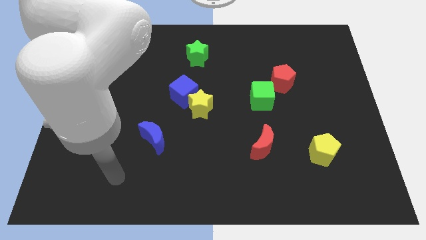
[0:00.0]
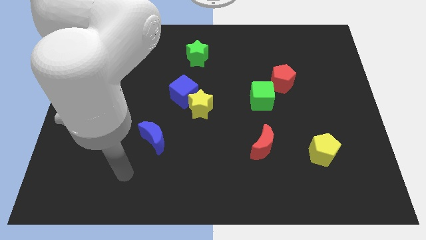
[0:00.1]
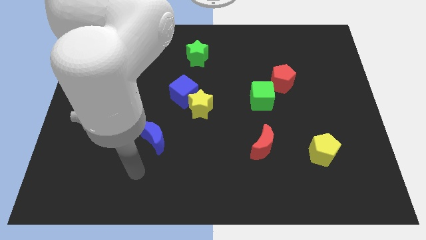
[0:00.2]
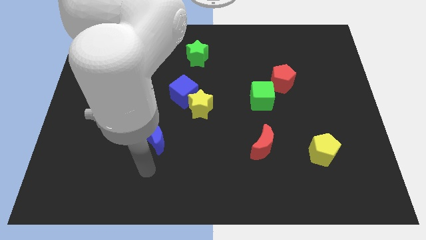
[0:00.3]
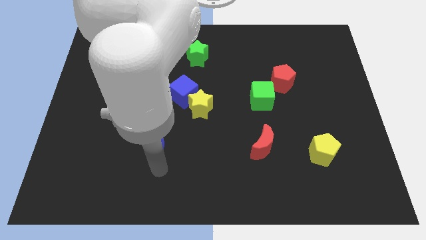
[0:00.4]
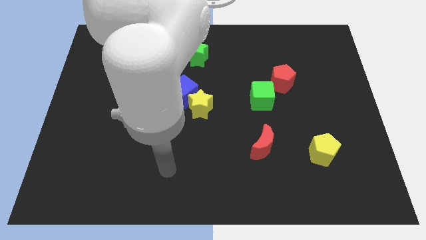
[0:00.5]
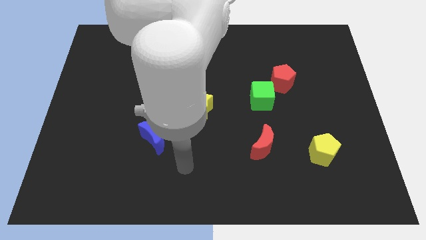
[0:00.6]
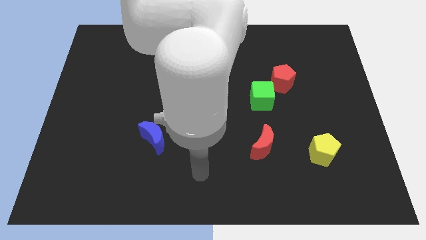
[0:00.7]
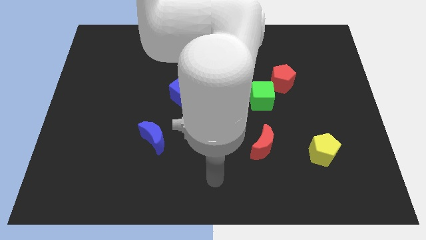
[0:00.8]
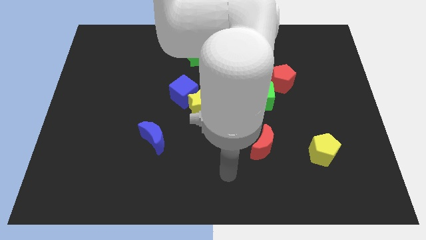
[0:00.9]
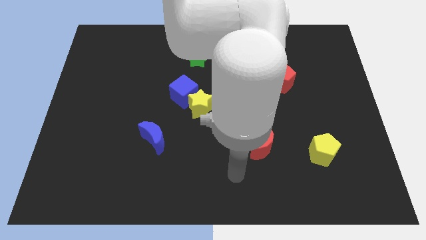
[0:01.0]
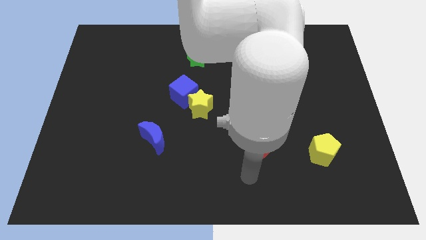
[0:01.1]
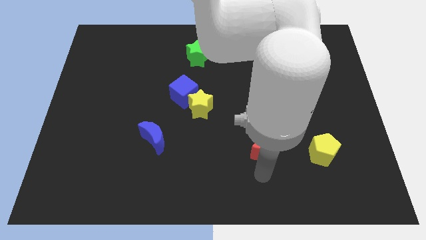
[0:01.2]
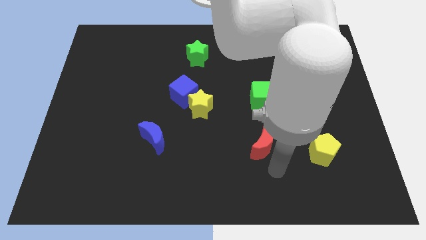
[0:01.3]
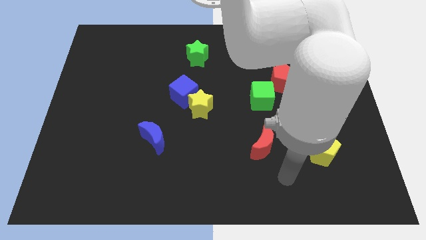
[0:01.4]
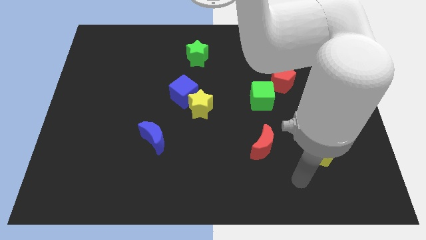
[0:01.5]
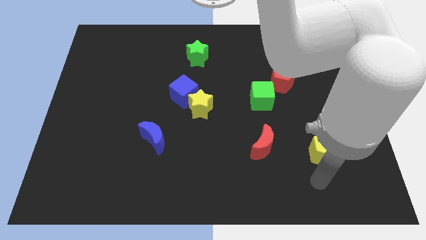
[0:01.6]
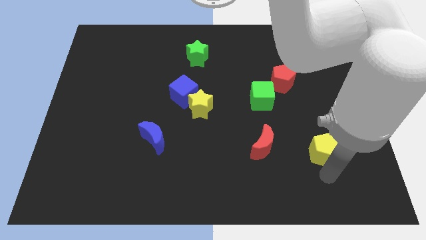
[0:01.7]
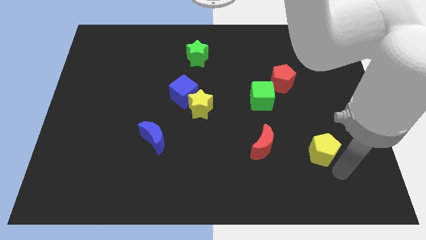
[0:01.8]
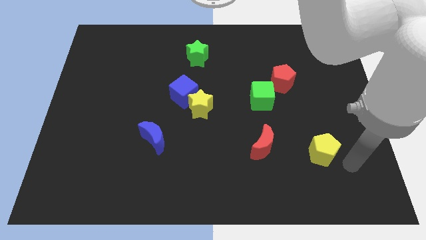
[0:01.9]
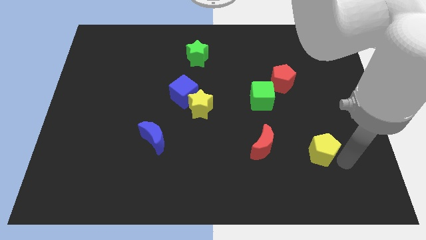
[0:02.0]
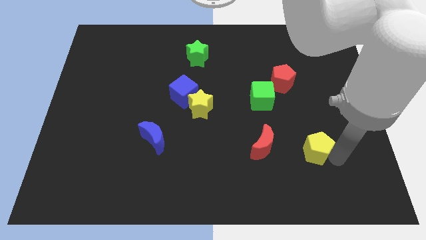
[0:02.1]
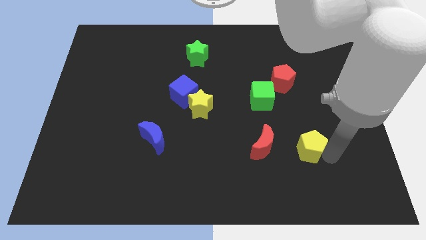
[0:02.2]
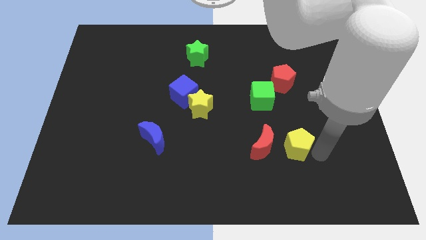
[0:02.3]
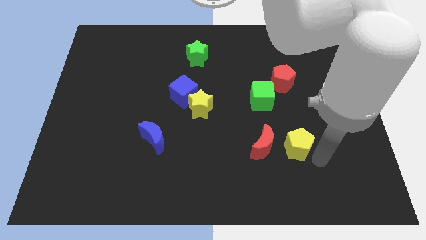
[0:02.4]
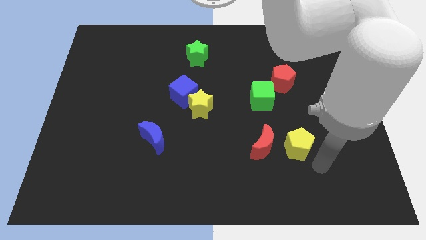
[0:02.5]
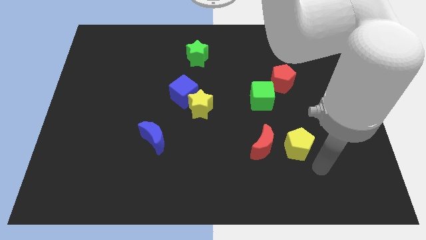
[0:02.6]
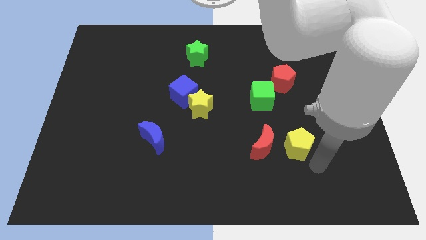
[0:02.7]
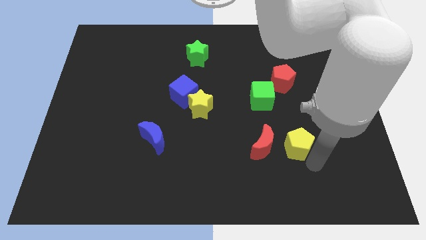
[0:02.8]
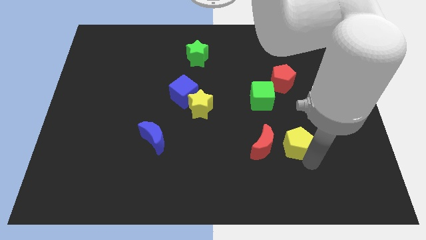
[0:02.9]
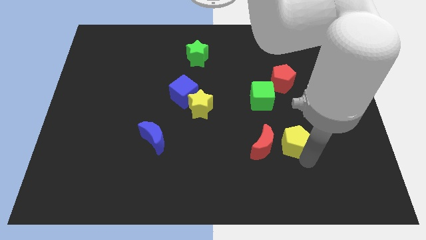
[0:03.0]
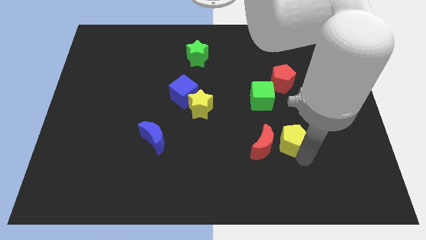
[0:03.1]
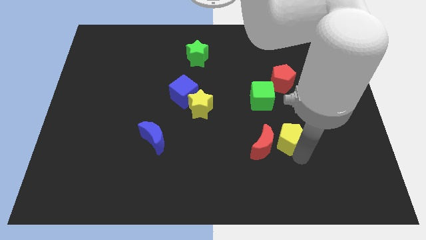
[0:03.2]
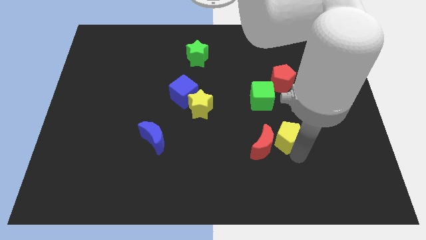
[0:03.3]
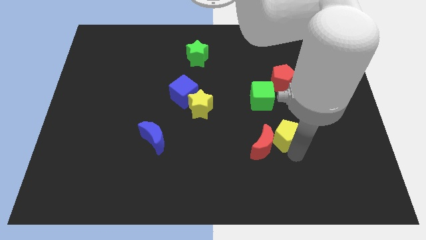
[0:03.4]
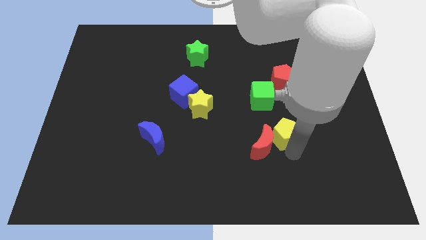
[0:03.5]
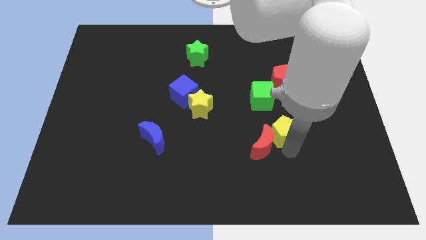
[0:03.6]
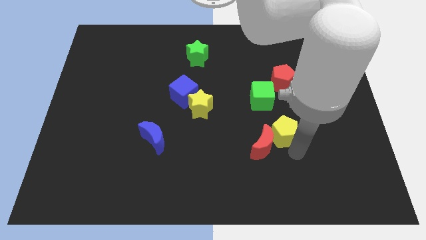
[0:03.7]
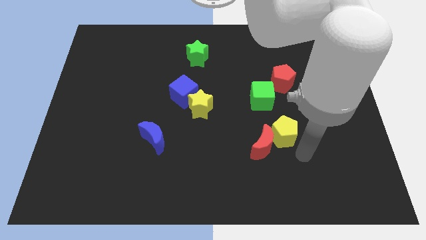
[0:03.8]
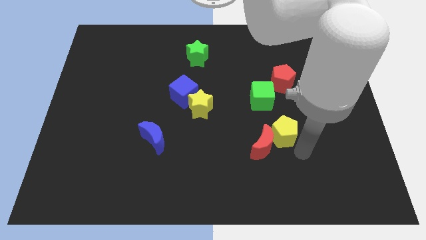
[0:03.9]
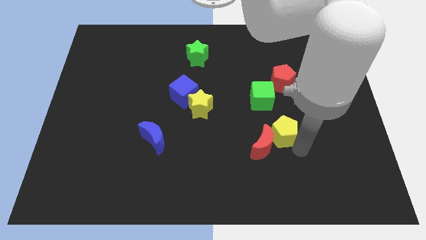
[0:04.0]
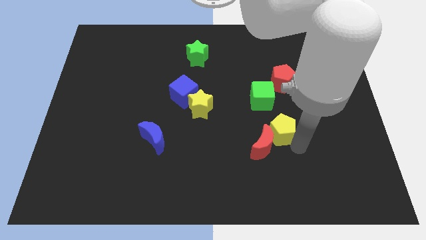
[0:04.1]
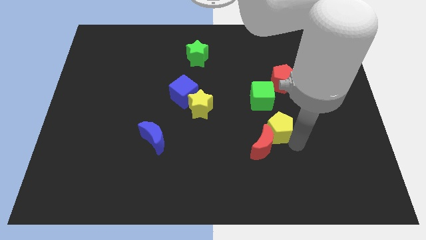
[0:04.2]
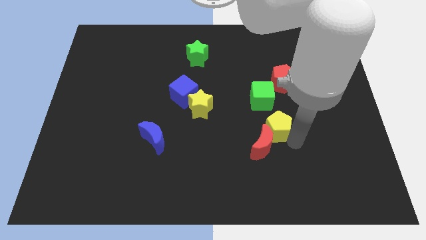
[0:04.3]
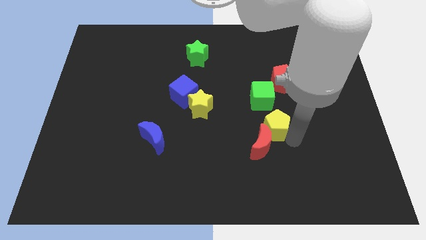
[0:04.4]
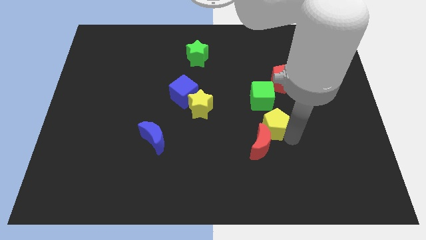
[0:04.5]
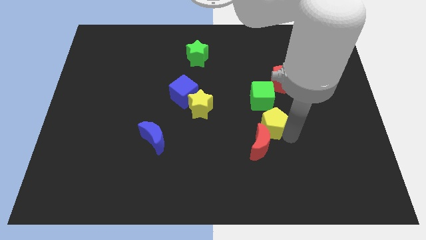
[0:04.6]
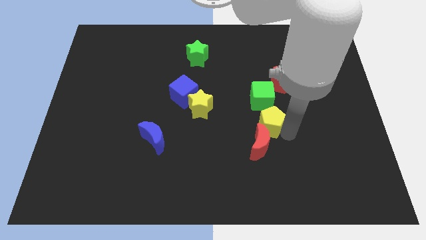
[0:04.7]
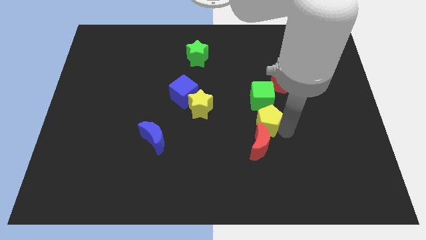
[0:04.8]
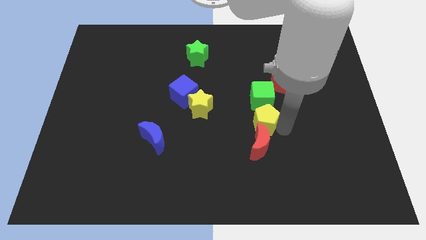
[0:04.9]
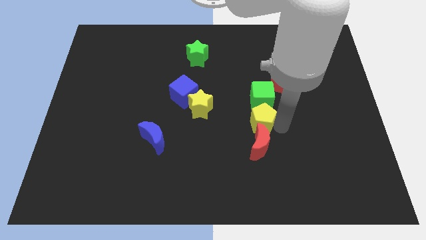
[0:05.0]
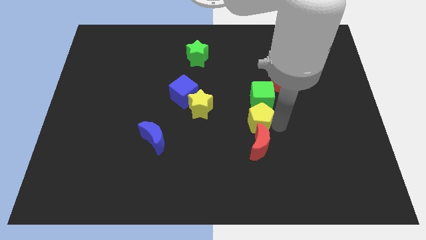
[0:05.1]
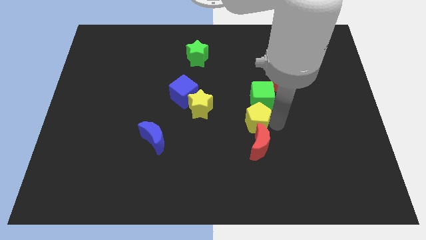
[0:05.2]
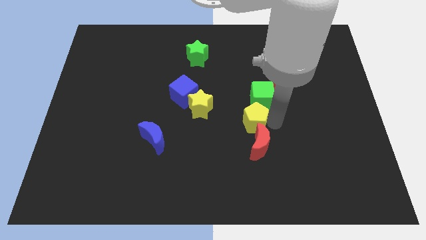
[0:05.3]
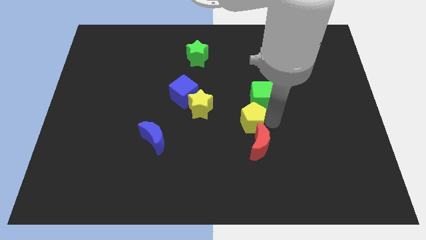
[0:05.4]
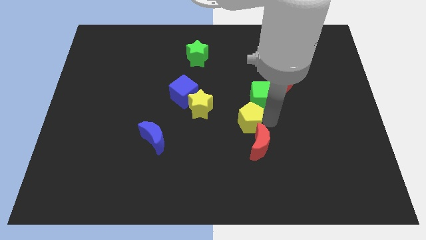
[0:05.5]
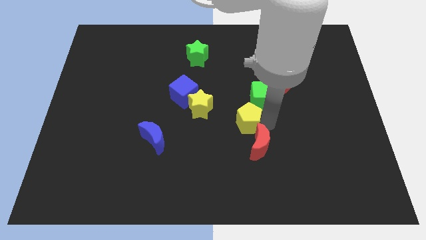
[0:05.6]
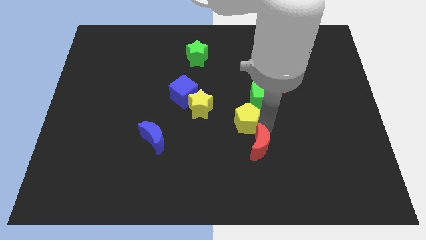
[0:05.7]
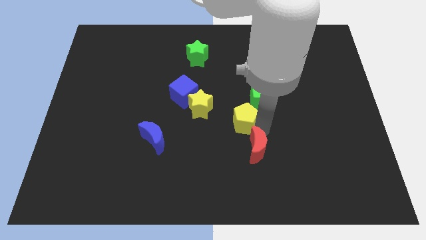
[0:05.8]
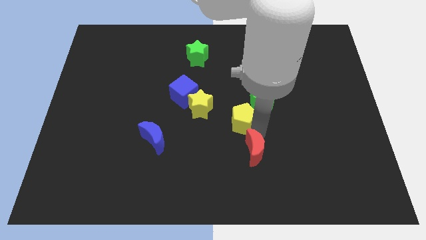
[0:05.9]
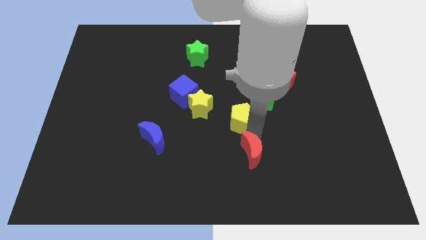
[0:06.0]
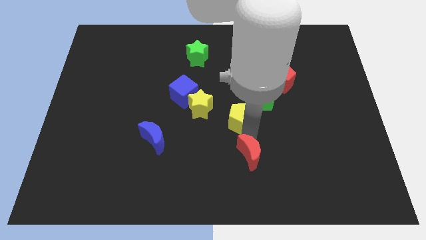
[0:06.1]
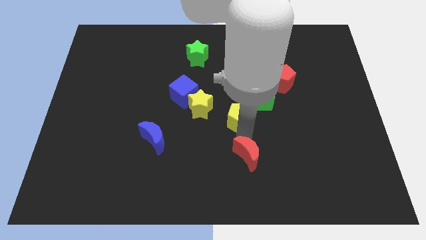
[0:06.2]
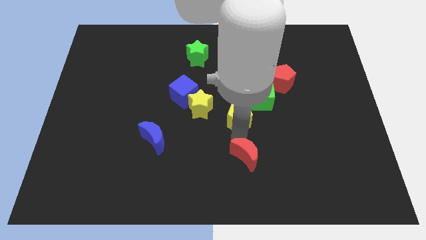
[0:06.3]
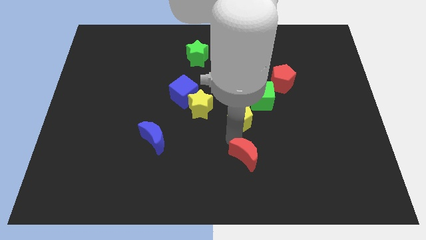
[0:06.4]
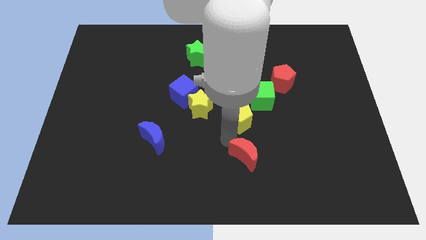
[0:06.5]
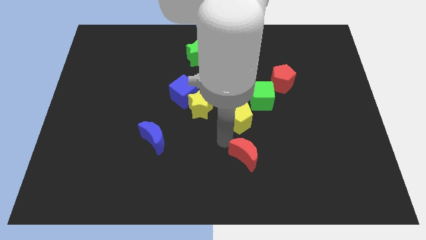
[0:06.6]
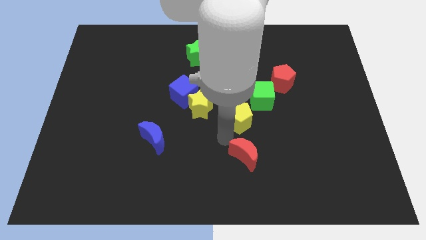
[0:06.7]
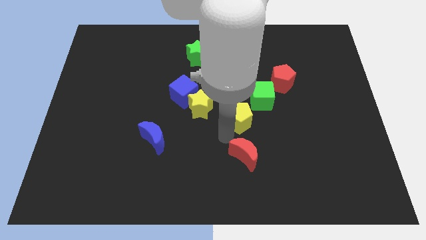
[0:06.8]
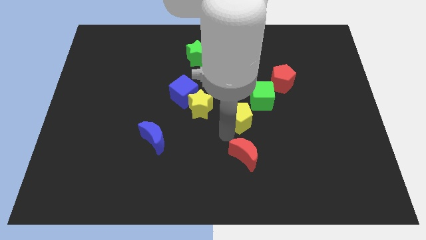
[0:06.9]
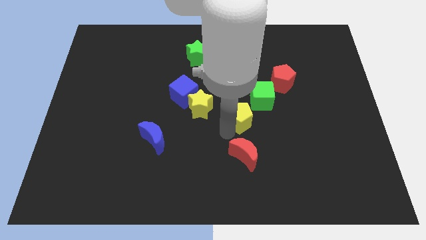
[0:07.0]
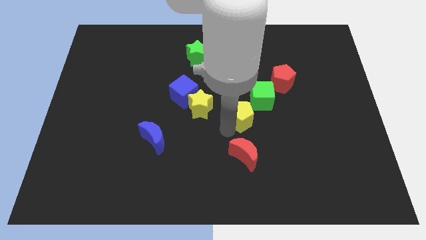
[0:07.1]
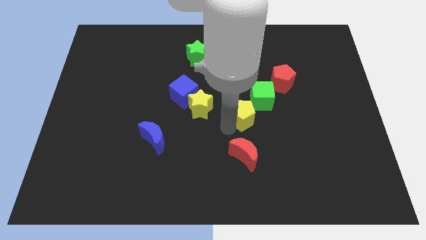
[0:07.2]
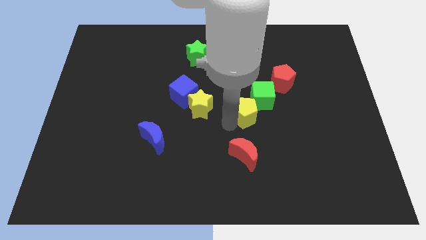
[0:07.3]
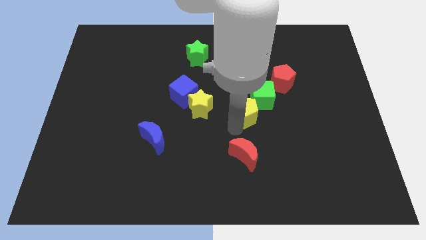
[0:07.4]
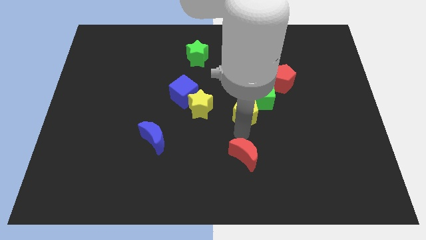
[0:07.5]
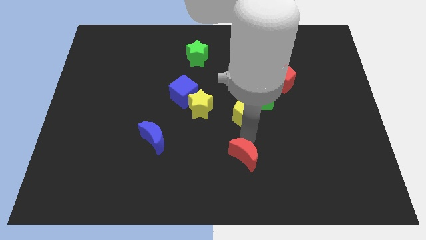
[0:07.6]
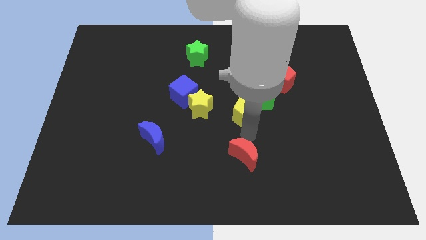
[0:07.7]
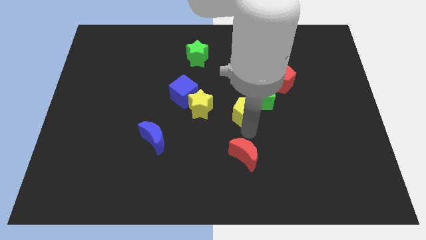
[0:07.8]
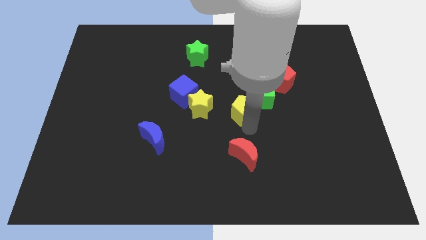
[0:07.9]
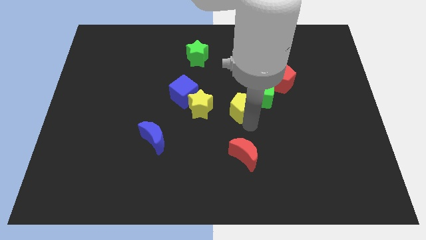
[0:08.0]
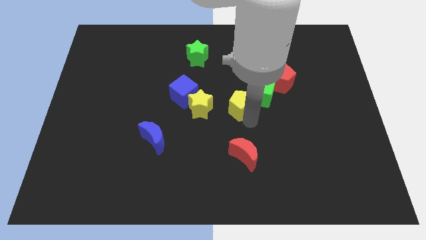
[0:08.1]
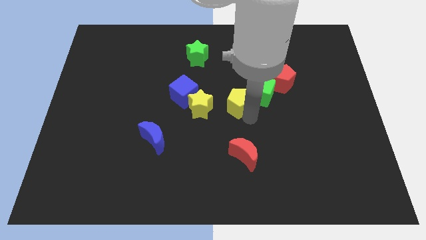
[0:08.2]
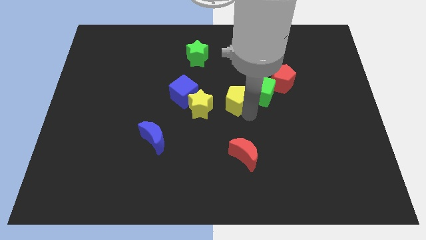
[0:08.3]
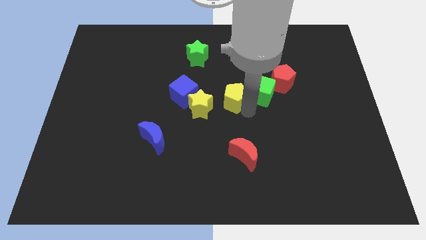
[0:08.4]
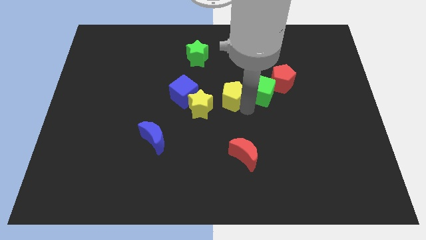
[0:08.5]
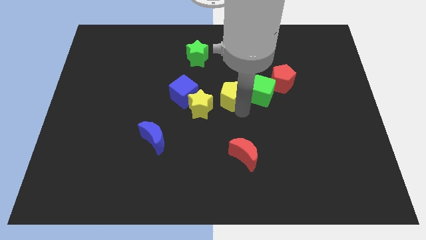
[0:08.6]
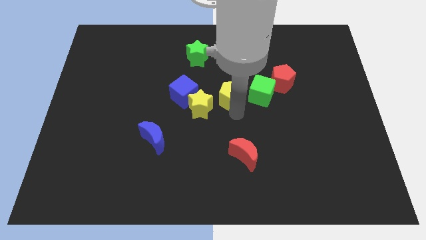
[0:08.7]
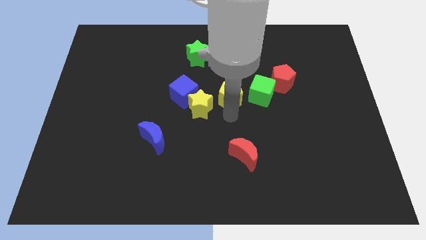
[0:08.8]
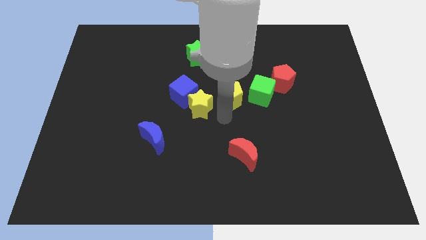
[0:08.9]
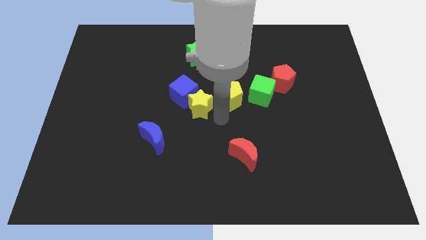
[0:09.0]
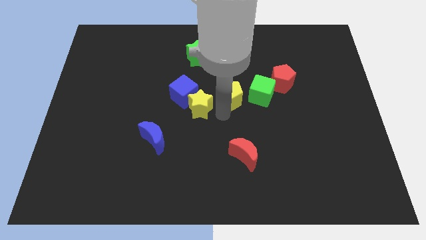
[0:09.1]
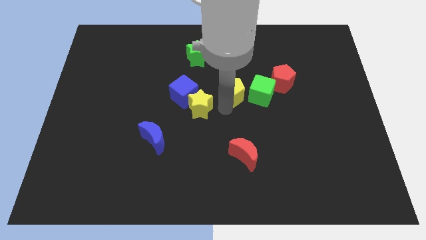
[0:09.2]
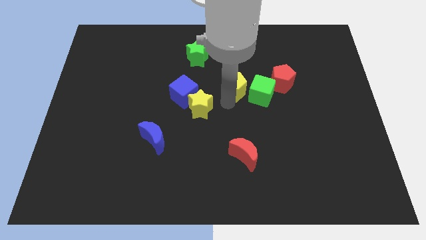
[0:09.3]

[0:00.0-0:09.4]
push the yellow pentagon to the top left side of the green cube
